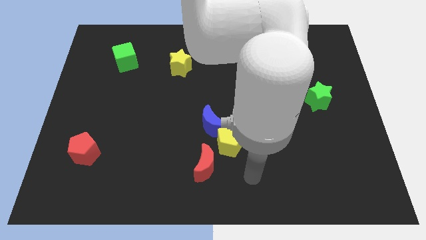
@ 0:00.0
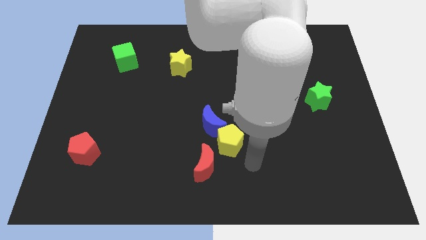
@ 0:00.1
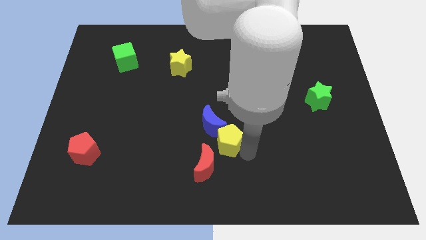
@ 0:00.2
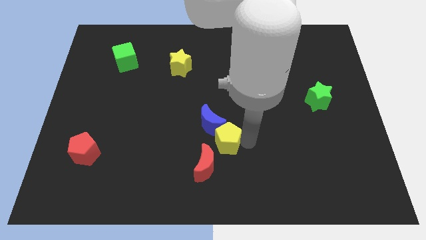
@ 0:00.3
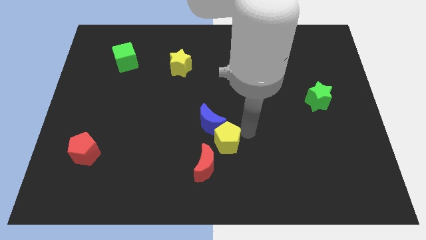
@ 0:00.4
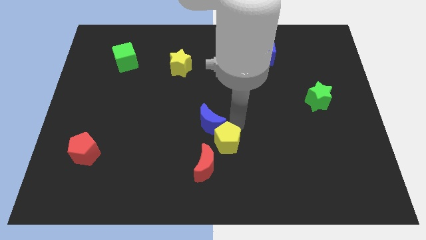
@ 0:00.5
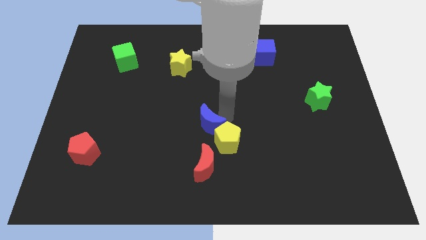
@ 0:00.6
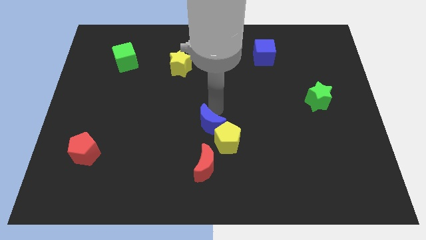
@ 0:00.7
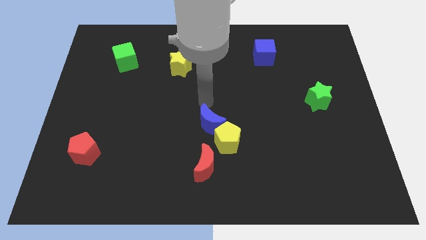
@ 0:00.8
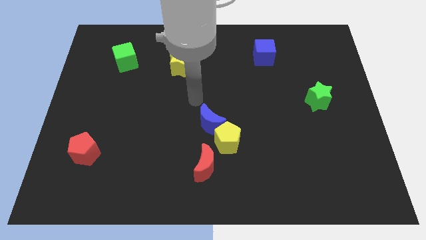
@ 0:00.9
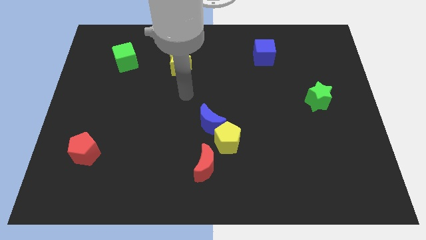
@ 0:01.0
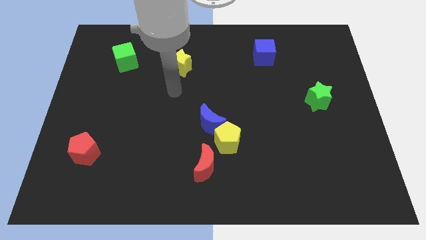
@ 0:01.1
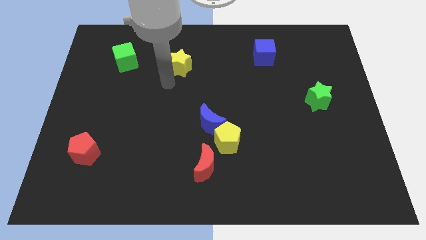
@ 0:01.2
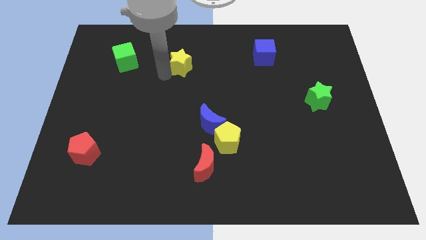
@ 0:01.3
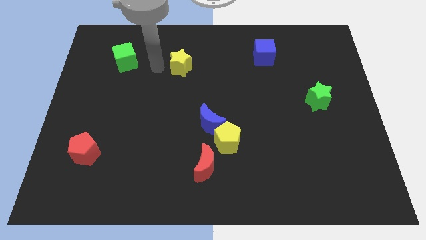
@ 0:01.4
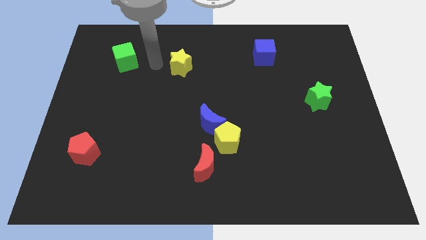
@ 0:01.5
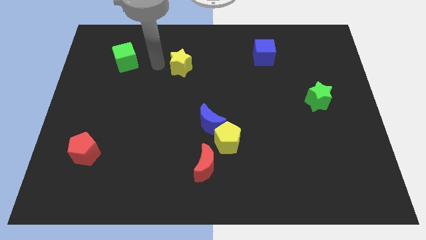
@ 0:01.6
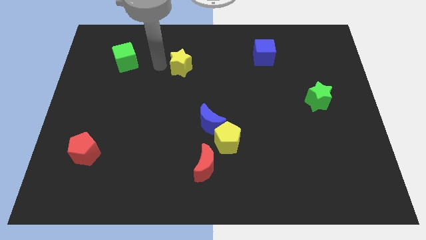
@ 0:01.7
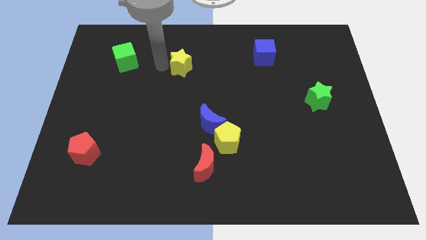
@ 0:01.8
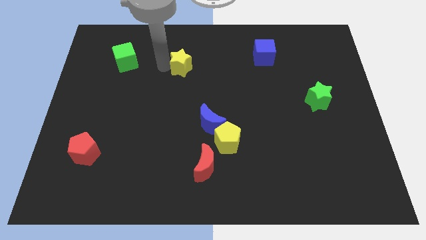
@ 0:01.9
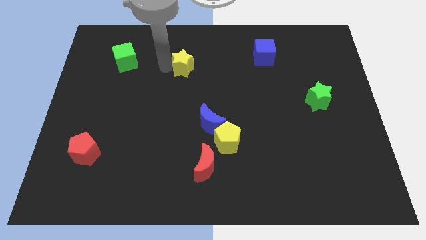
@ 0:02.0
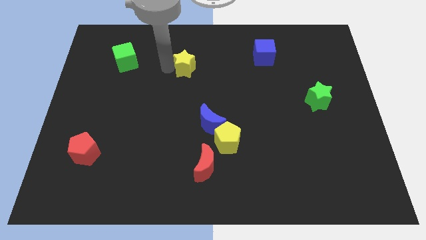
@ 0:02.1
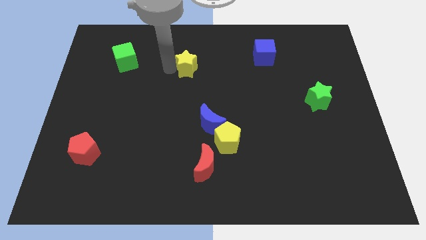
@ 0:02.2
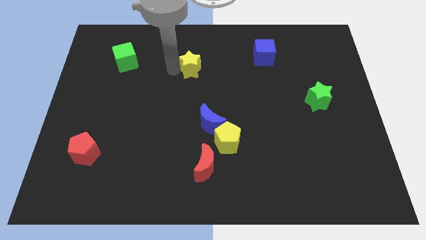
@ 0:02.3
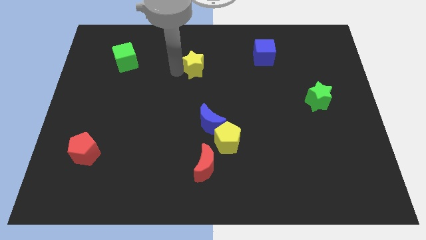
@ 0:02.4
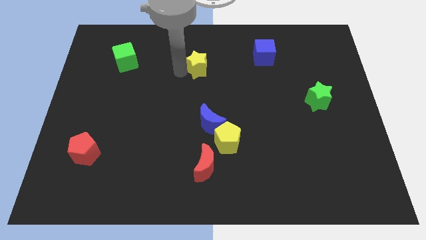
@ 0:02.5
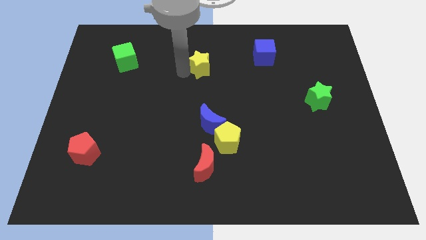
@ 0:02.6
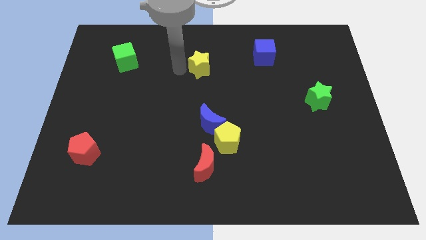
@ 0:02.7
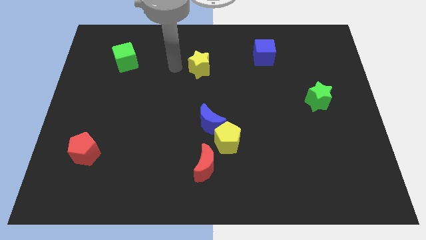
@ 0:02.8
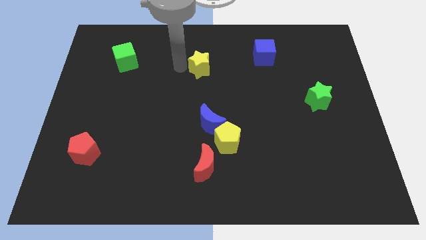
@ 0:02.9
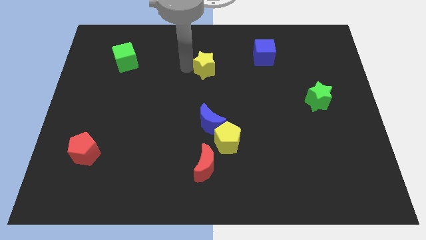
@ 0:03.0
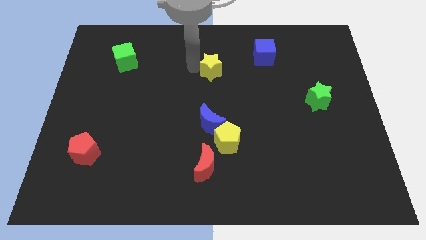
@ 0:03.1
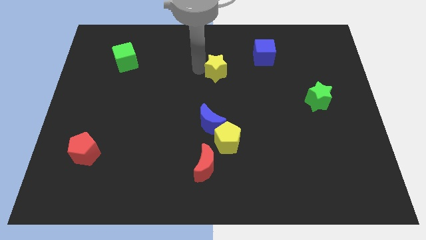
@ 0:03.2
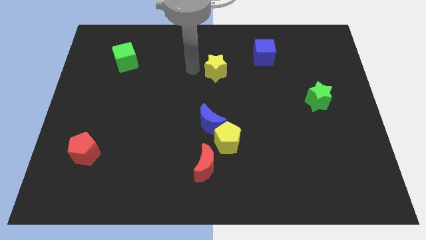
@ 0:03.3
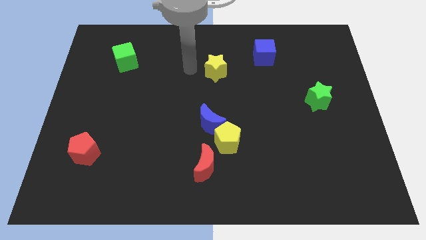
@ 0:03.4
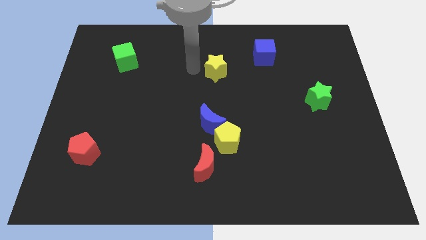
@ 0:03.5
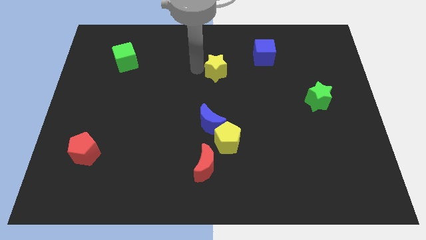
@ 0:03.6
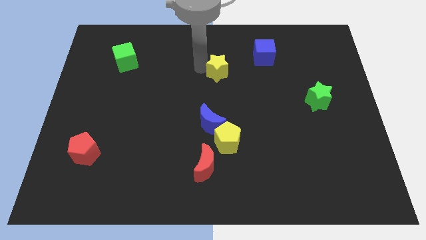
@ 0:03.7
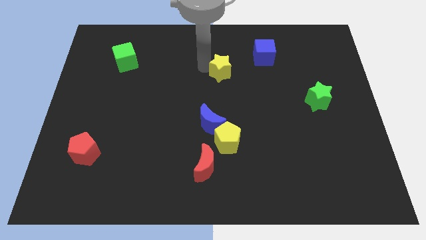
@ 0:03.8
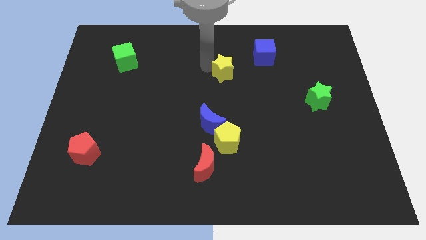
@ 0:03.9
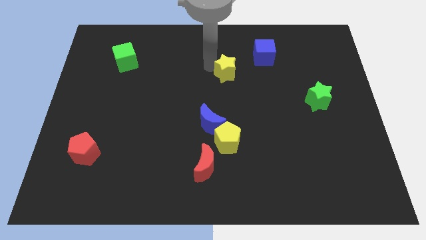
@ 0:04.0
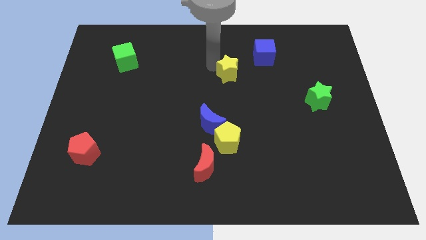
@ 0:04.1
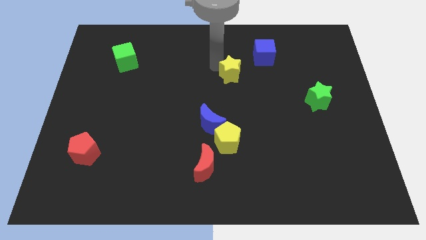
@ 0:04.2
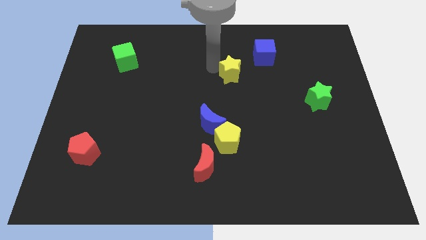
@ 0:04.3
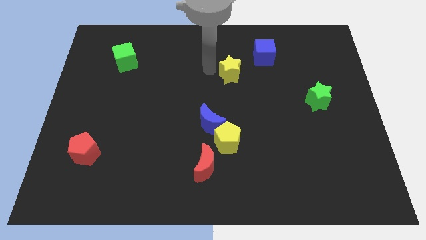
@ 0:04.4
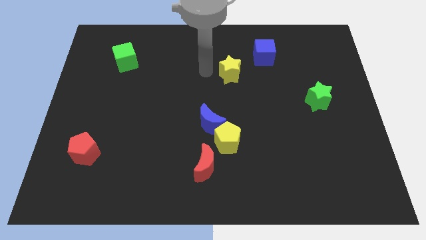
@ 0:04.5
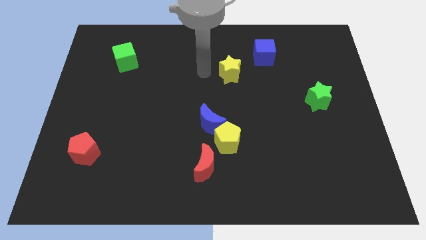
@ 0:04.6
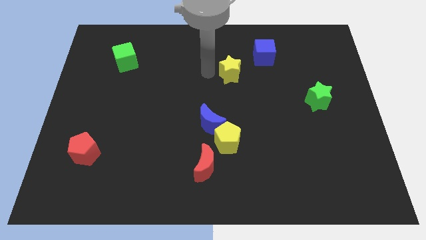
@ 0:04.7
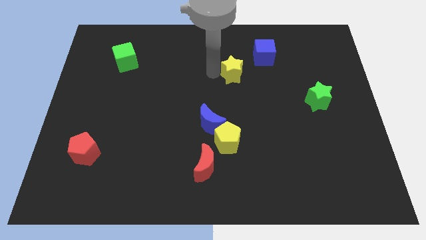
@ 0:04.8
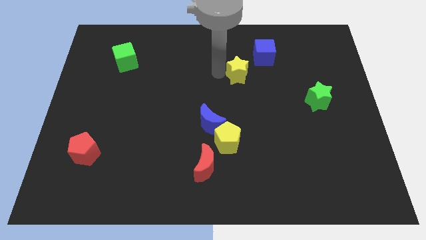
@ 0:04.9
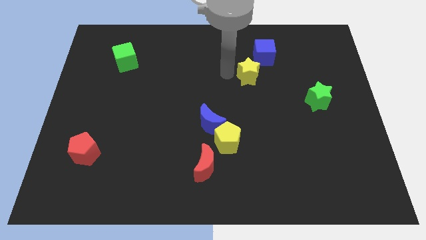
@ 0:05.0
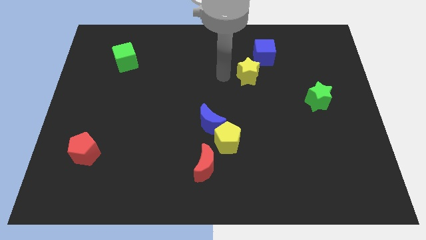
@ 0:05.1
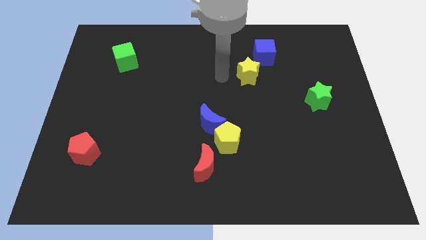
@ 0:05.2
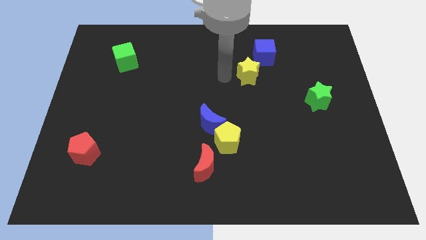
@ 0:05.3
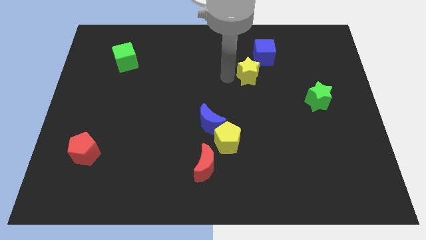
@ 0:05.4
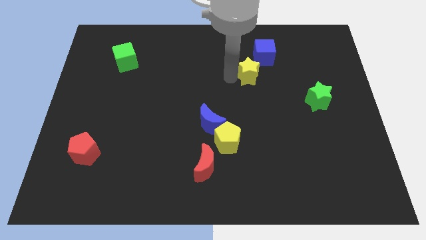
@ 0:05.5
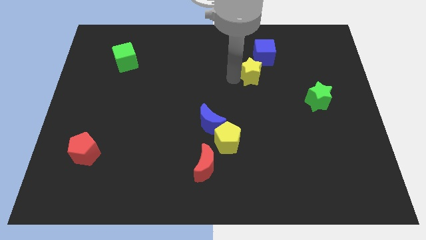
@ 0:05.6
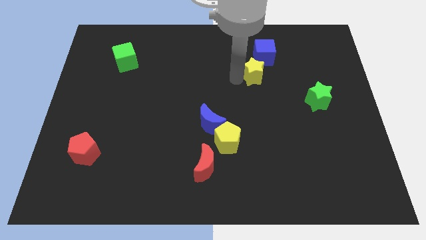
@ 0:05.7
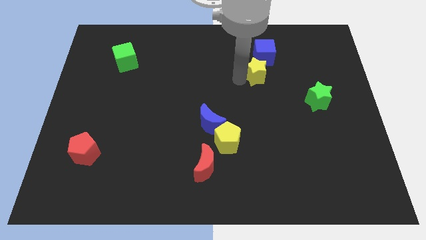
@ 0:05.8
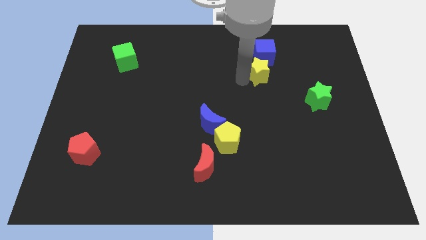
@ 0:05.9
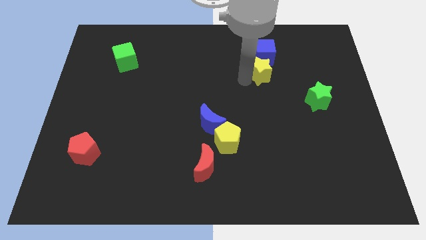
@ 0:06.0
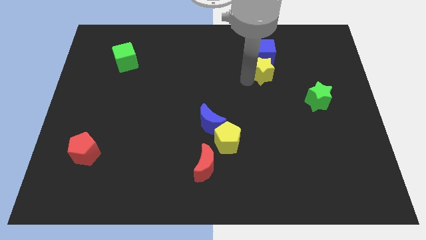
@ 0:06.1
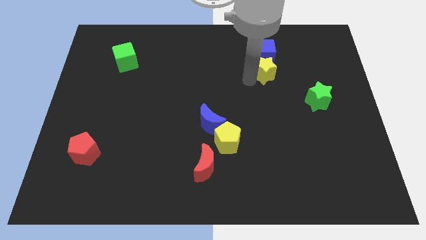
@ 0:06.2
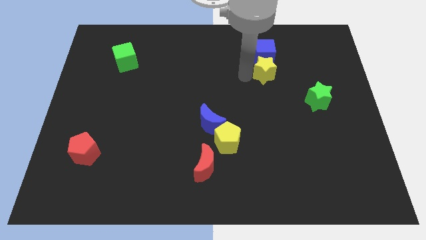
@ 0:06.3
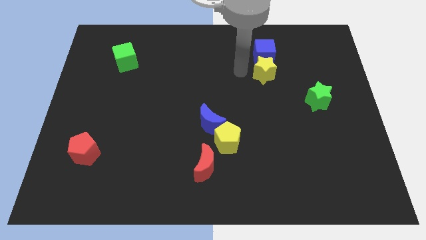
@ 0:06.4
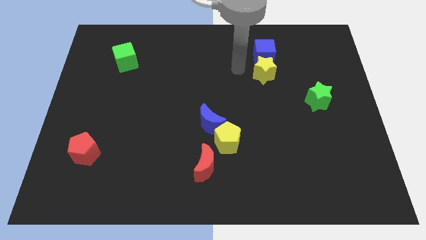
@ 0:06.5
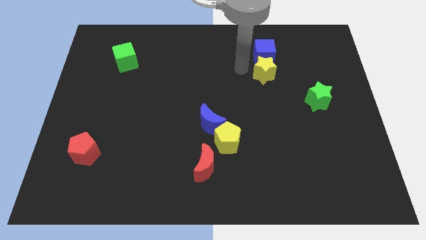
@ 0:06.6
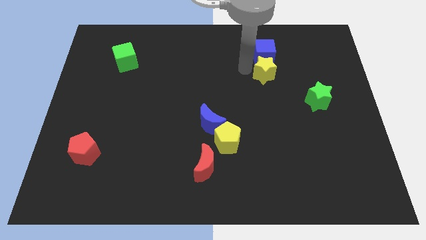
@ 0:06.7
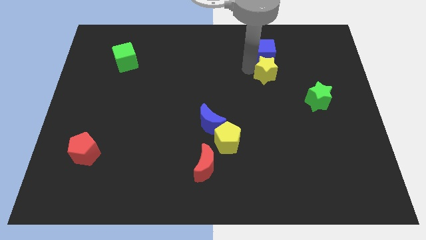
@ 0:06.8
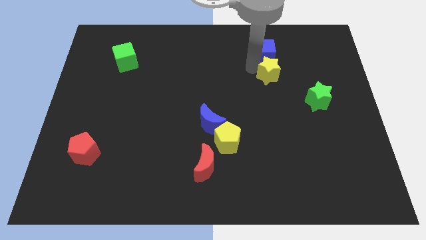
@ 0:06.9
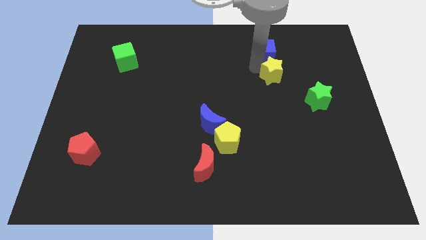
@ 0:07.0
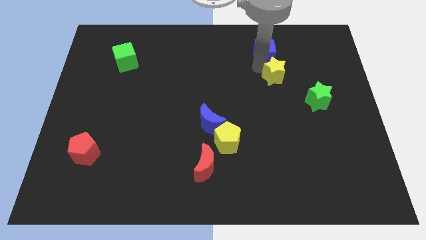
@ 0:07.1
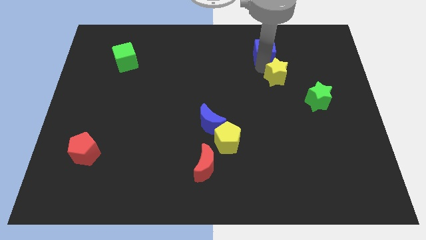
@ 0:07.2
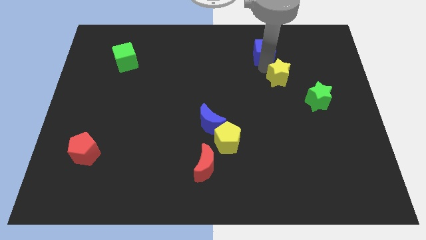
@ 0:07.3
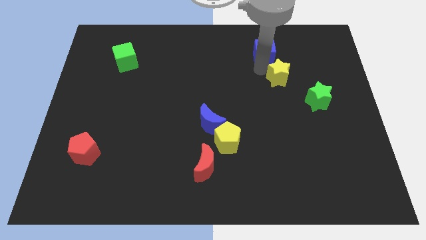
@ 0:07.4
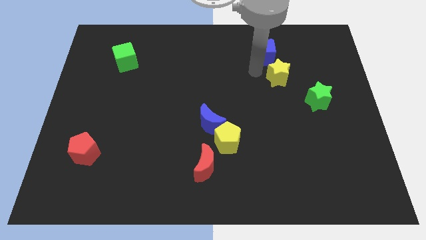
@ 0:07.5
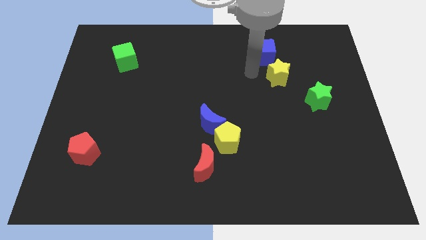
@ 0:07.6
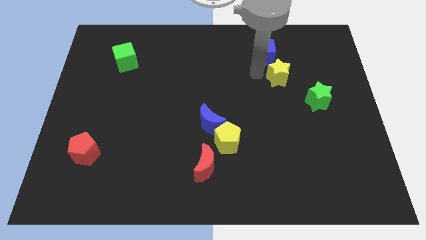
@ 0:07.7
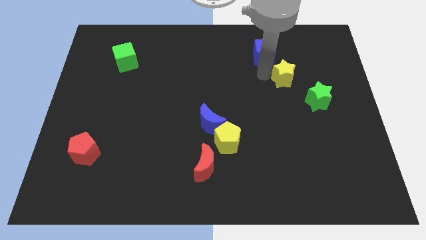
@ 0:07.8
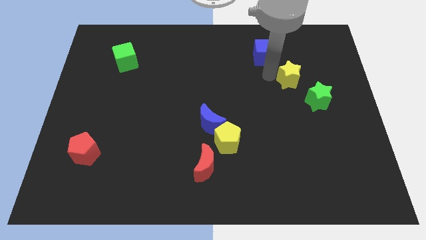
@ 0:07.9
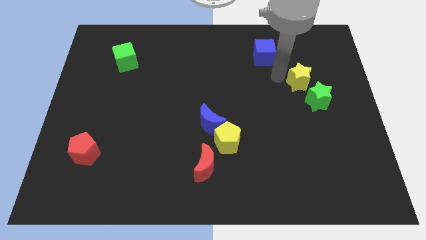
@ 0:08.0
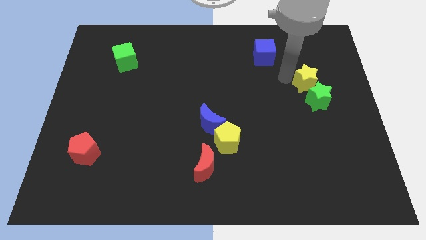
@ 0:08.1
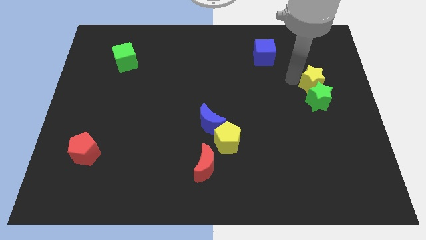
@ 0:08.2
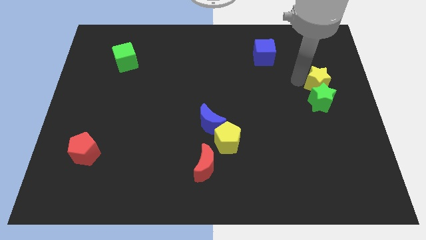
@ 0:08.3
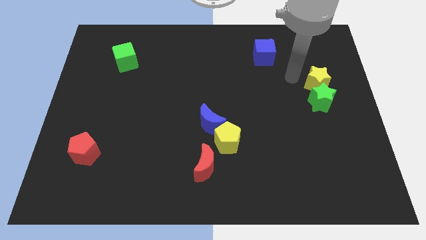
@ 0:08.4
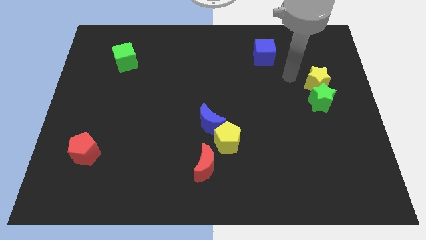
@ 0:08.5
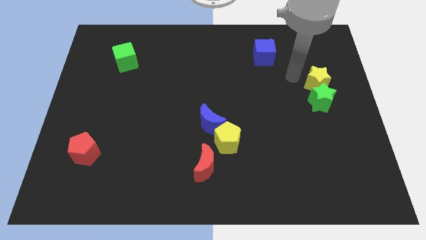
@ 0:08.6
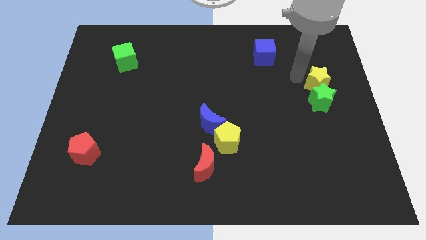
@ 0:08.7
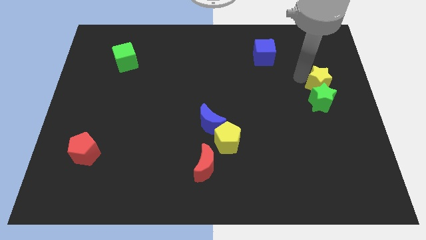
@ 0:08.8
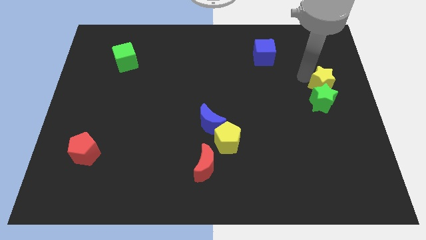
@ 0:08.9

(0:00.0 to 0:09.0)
put the yellow star to the center right
